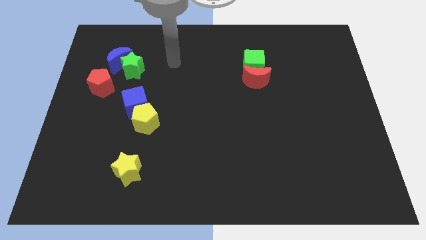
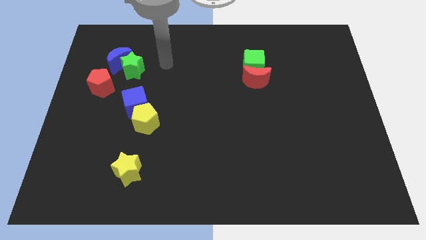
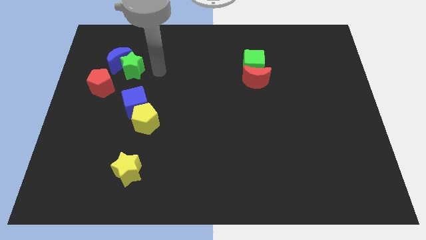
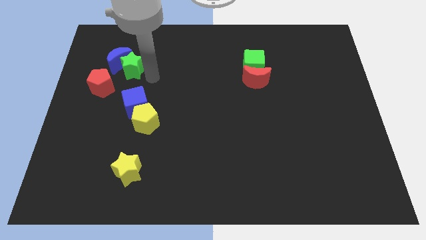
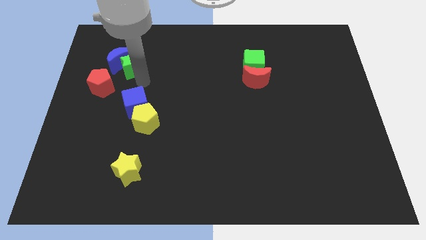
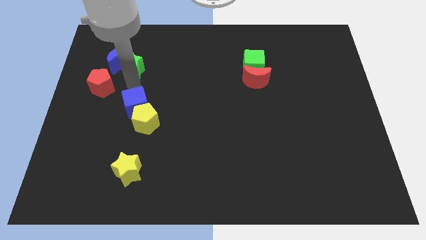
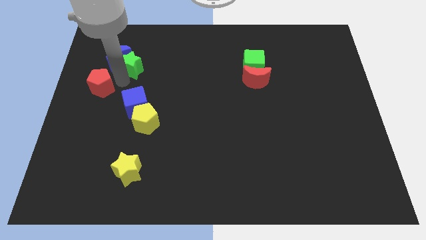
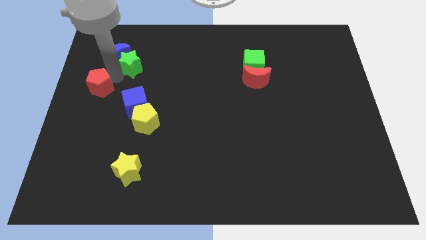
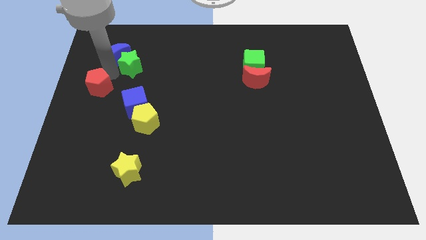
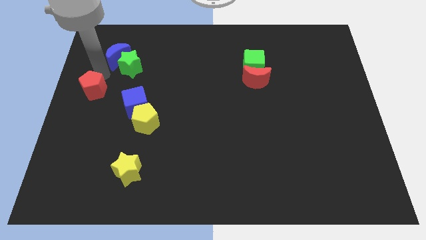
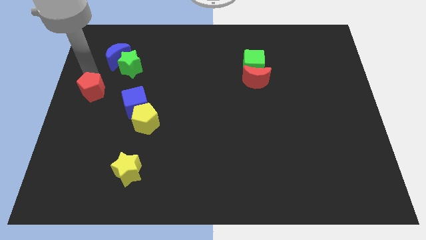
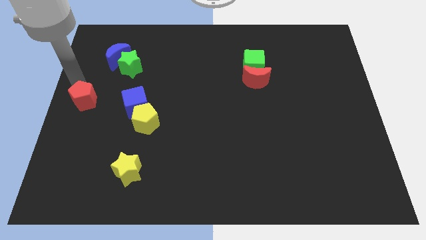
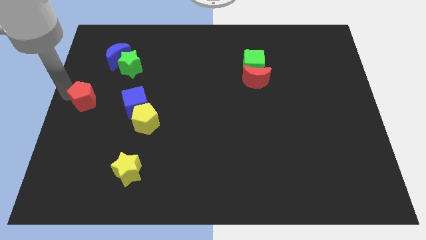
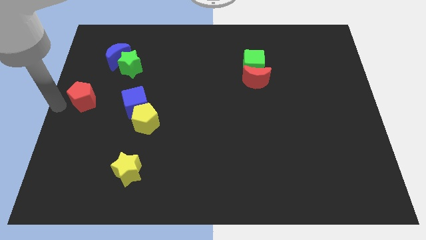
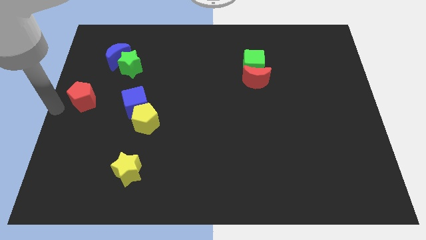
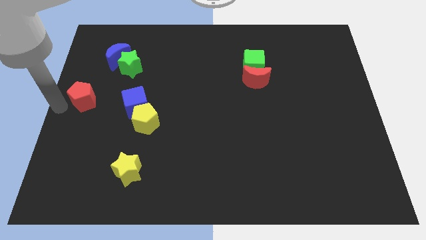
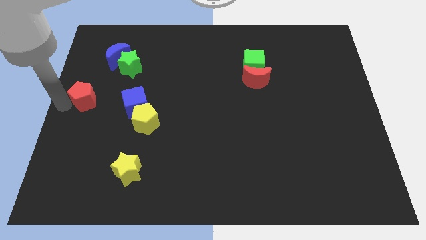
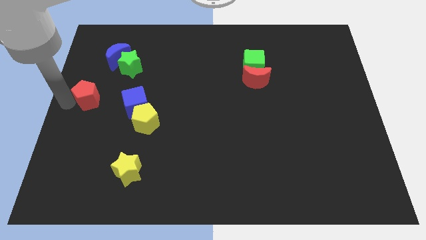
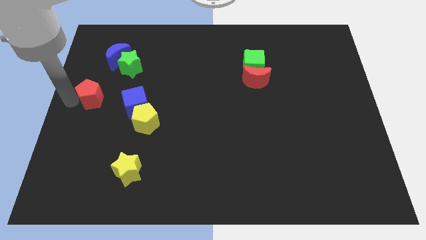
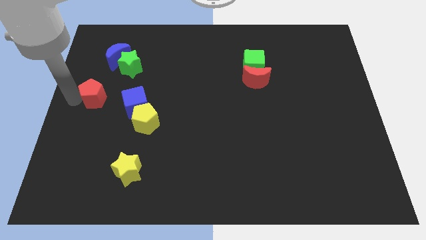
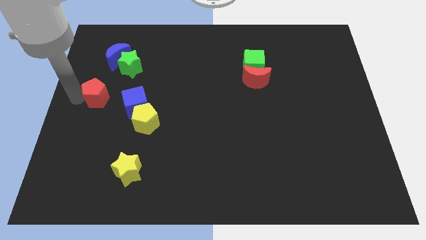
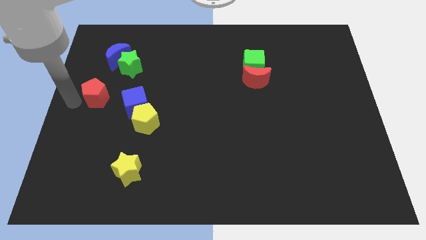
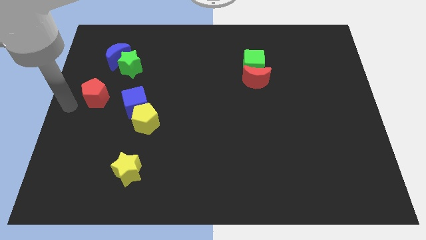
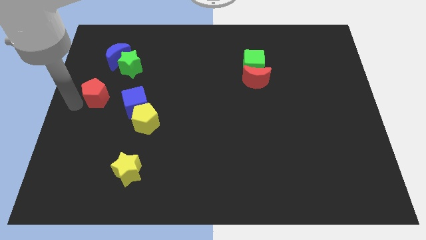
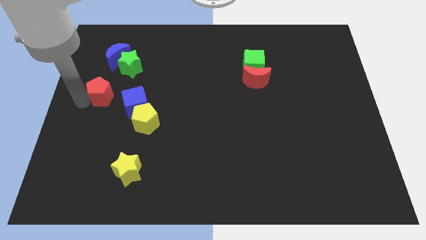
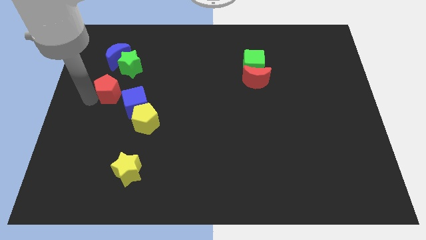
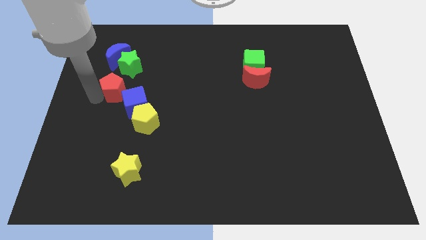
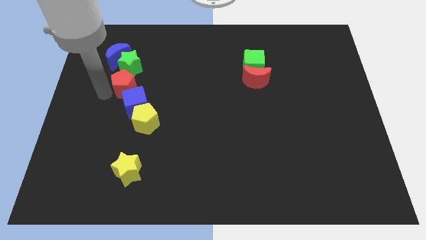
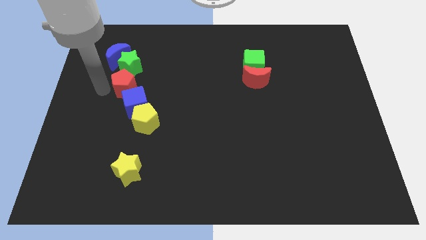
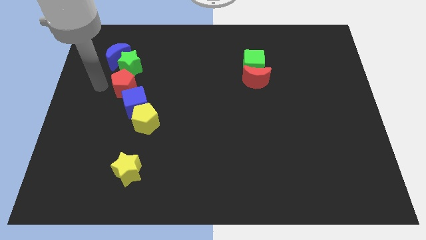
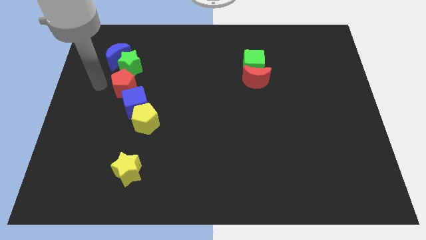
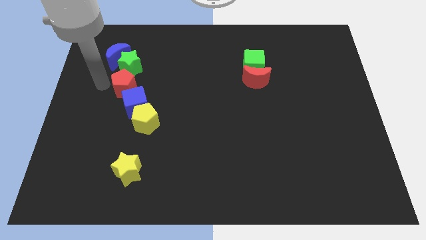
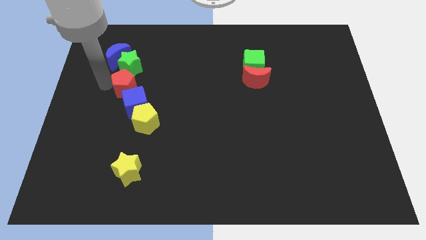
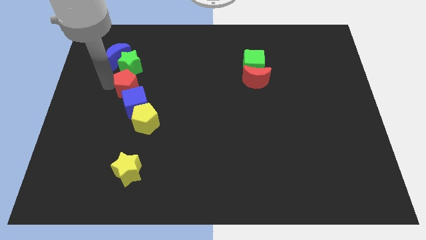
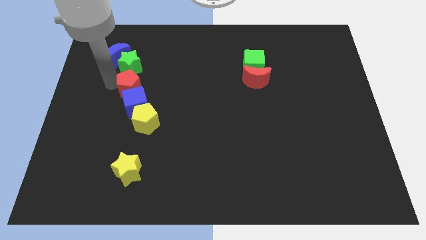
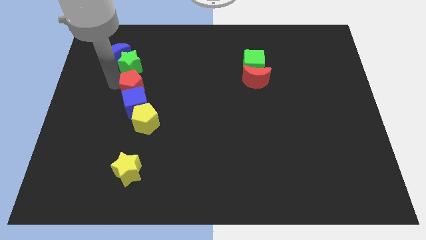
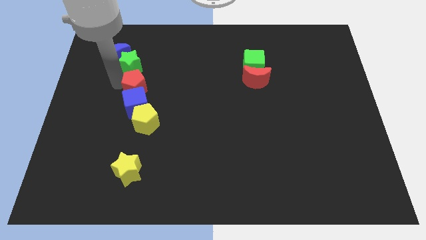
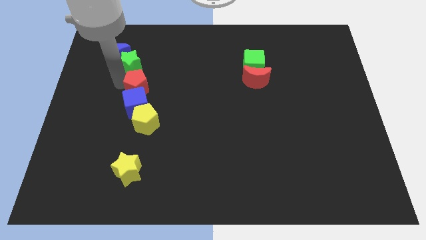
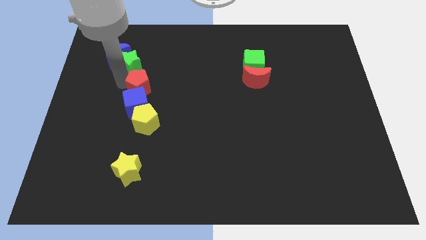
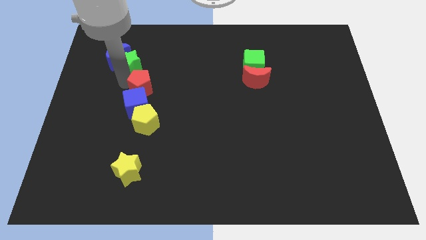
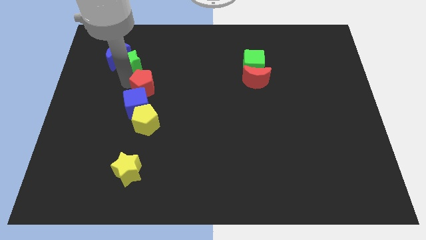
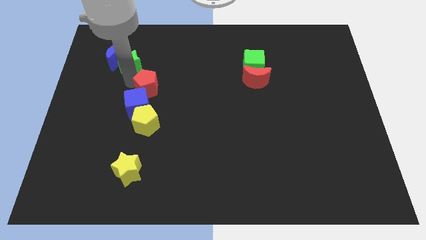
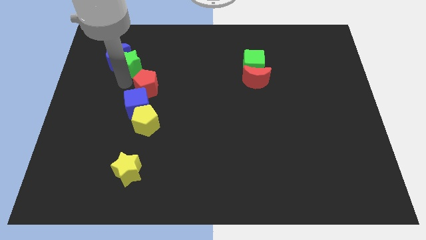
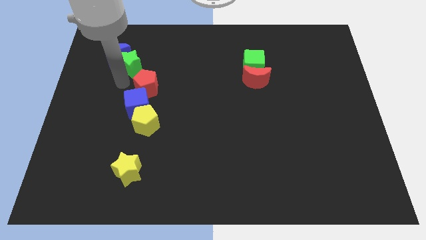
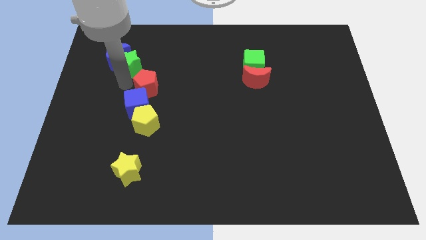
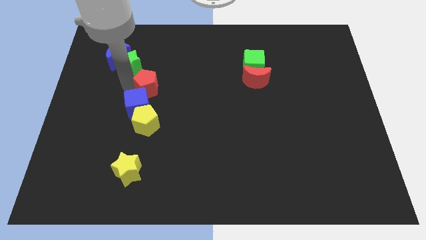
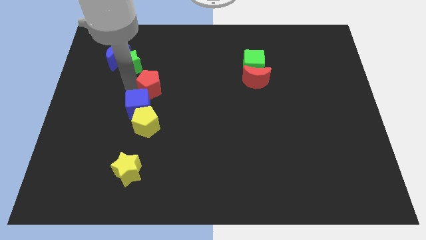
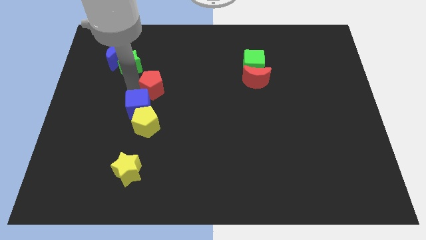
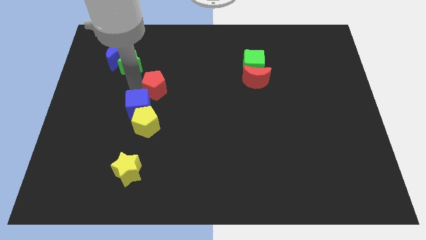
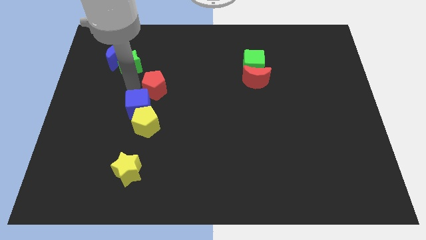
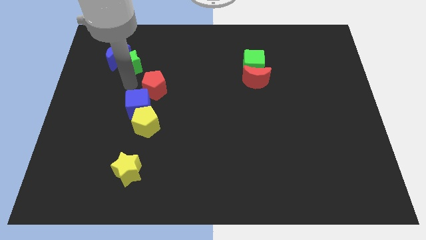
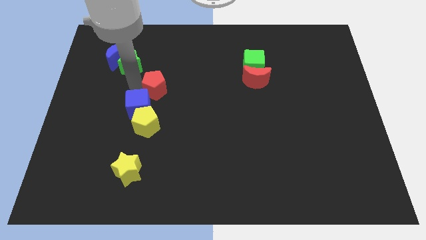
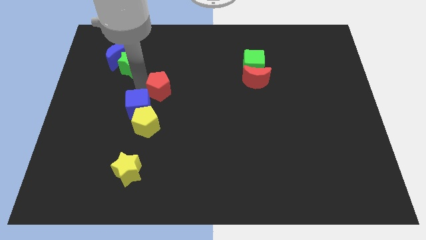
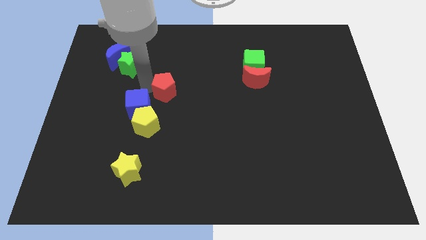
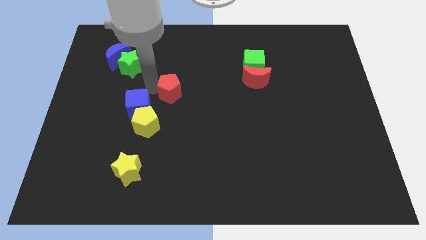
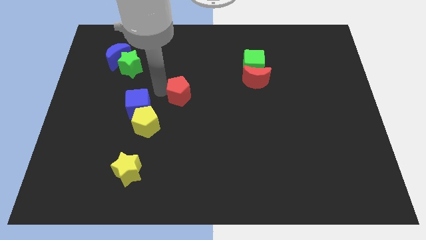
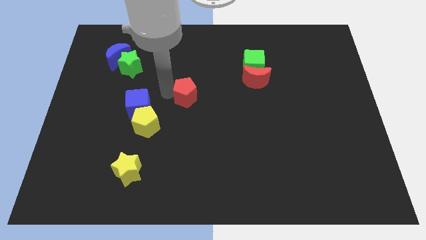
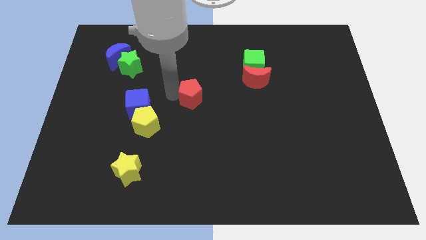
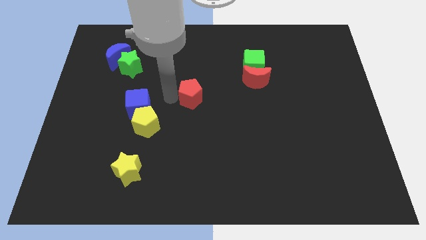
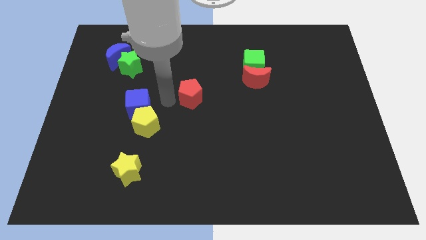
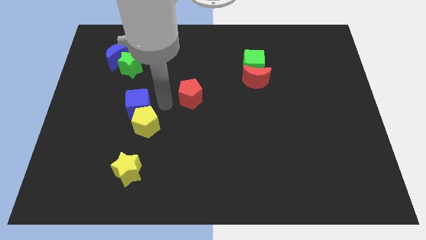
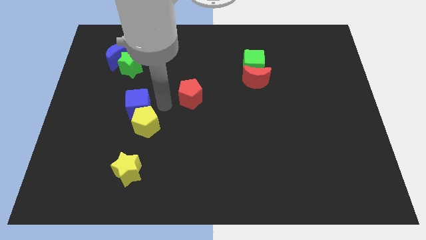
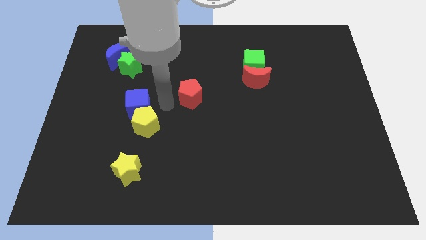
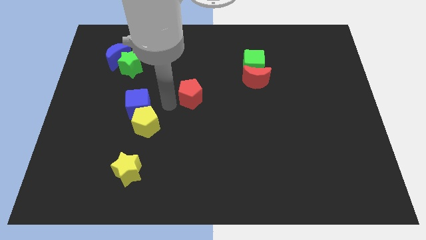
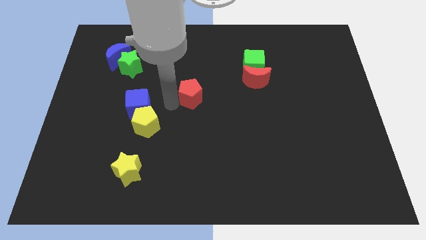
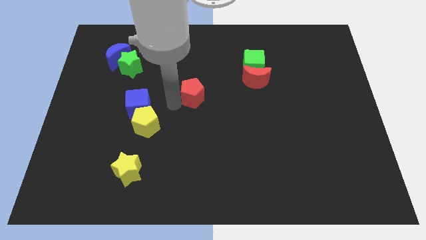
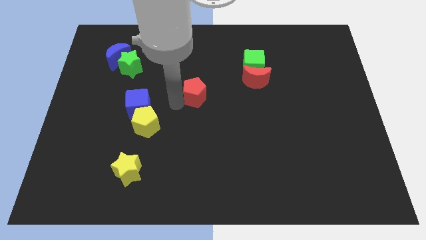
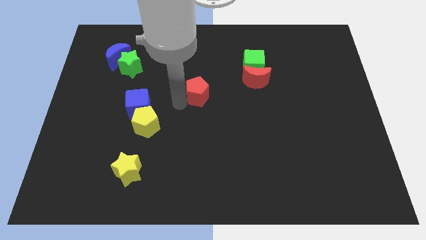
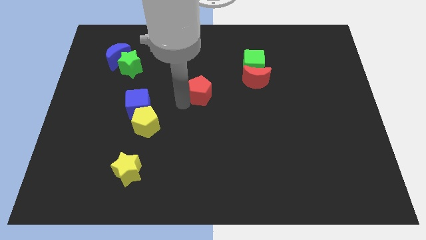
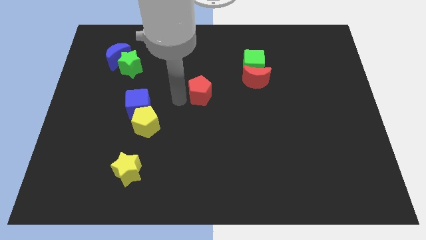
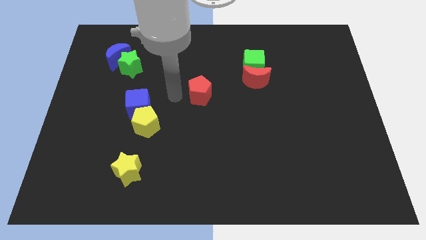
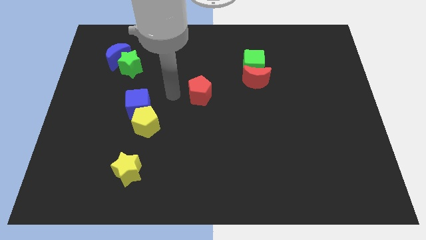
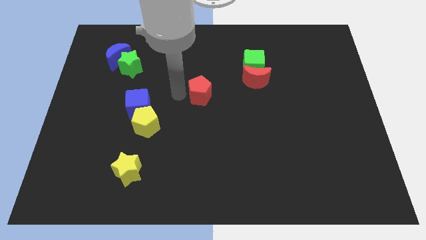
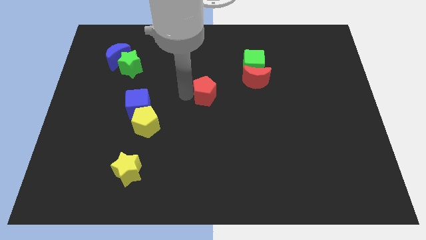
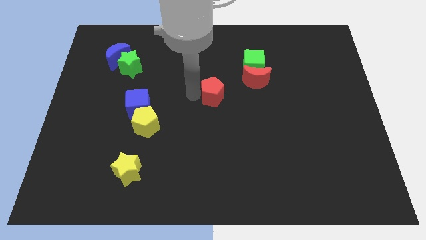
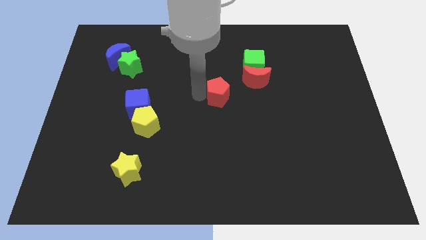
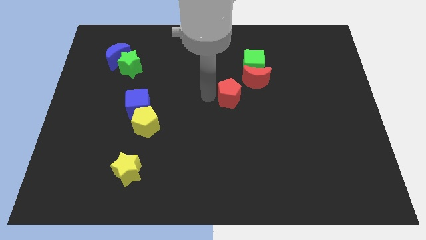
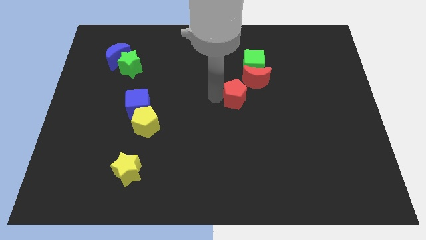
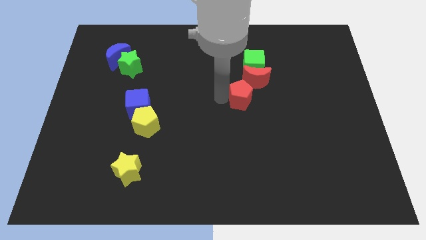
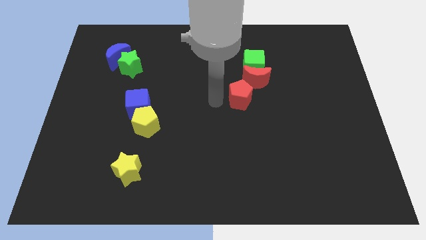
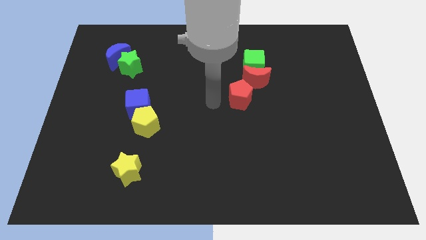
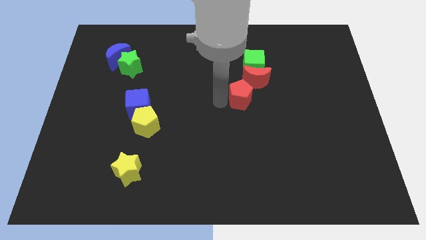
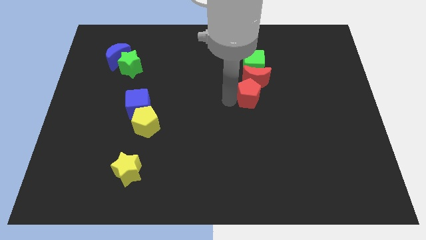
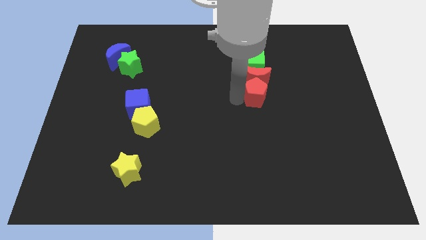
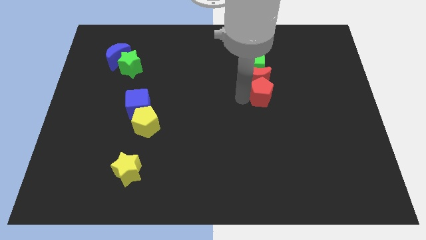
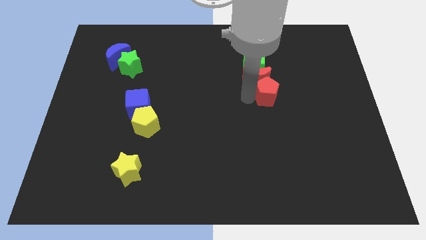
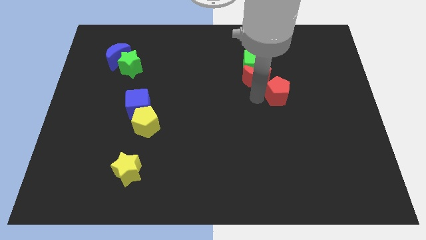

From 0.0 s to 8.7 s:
push the red pentagon just right of the red moon
